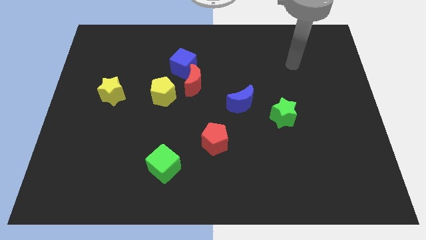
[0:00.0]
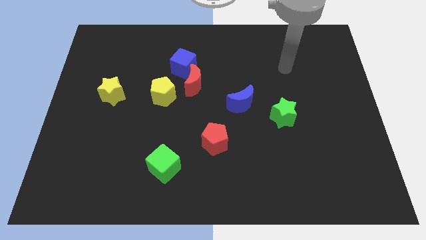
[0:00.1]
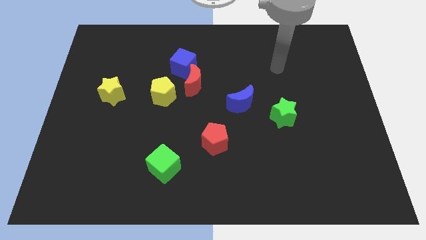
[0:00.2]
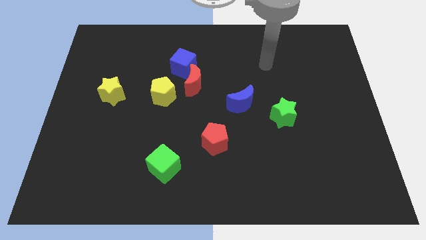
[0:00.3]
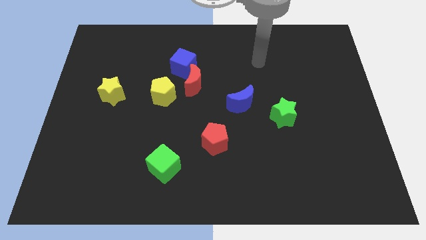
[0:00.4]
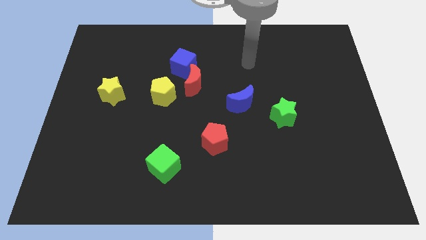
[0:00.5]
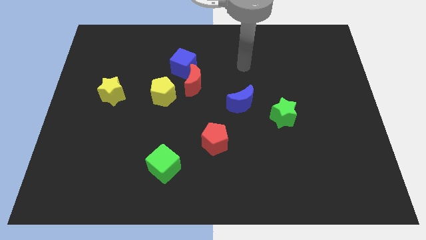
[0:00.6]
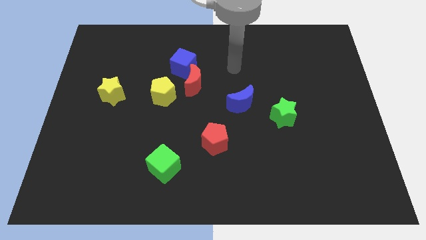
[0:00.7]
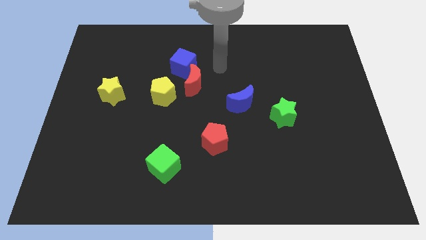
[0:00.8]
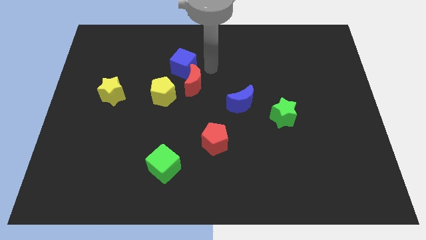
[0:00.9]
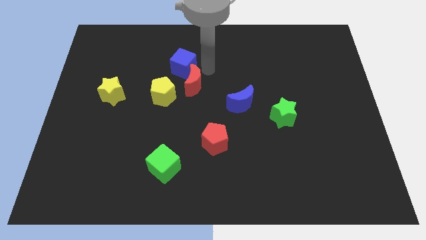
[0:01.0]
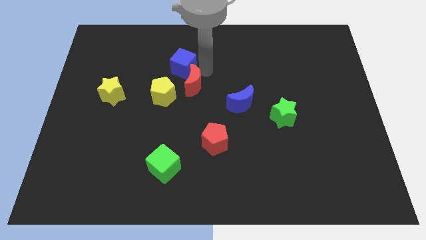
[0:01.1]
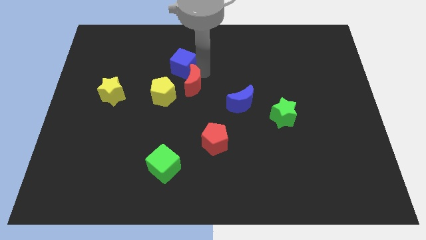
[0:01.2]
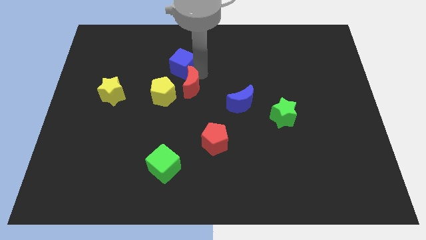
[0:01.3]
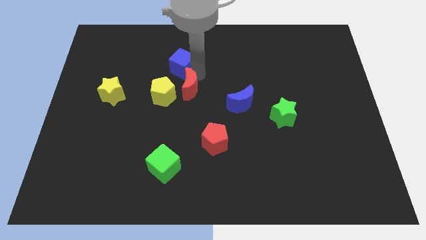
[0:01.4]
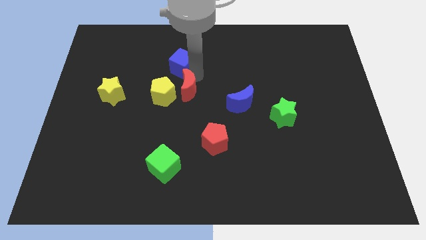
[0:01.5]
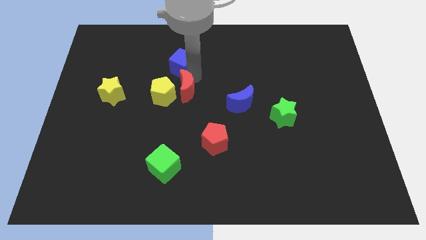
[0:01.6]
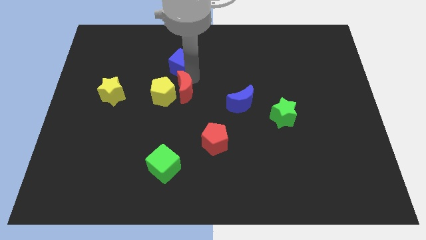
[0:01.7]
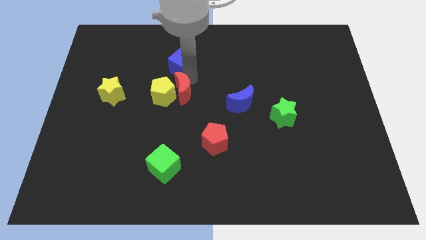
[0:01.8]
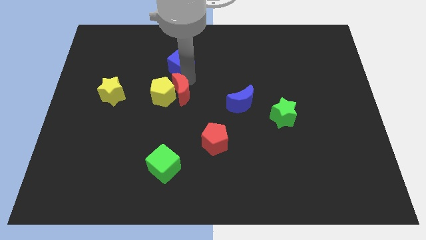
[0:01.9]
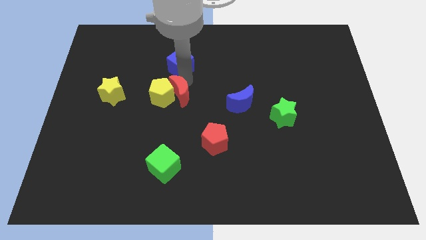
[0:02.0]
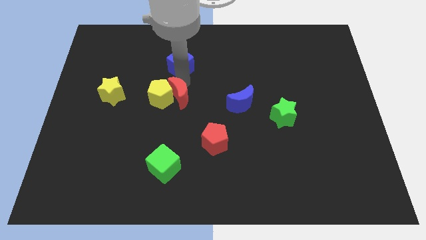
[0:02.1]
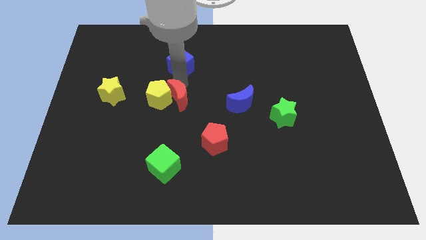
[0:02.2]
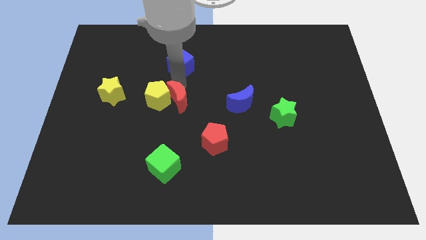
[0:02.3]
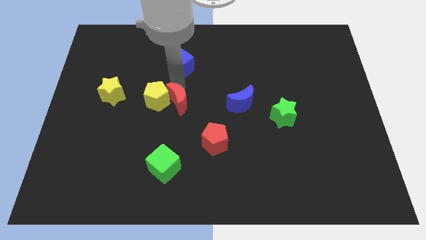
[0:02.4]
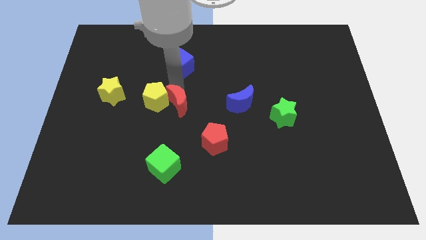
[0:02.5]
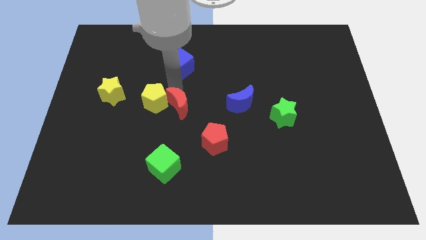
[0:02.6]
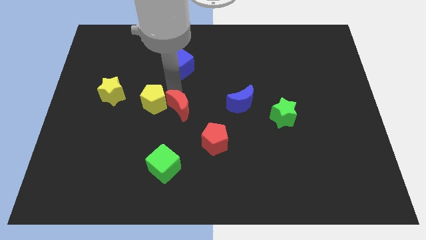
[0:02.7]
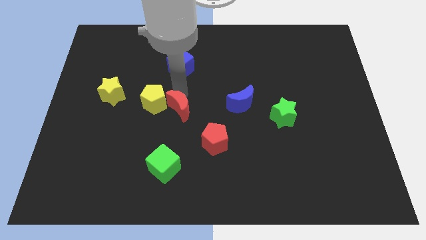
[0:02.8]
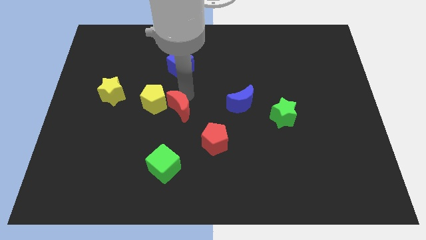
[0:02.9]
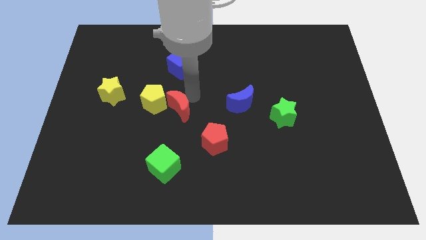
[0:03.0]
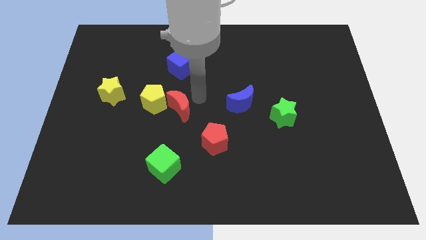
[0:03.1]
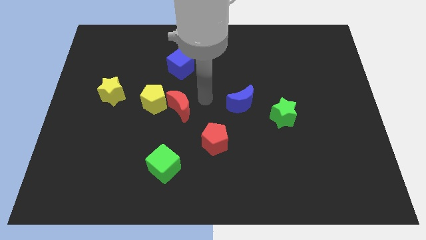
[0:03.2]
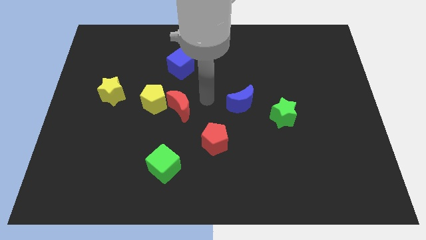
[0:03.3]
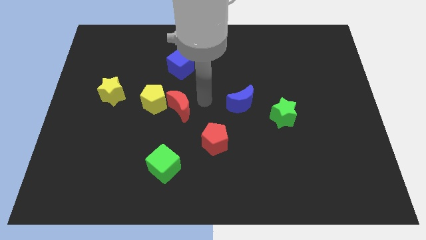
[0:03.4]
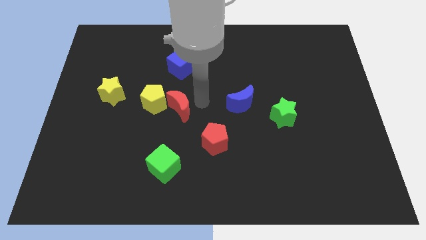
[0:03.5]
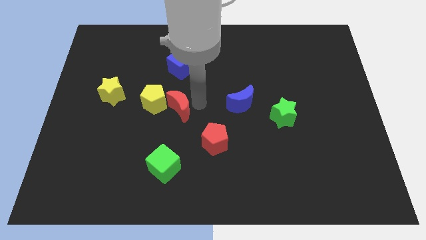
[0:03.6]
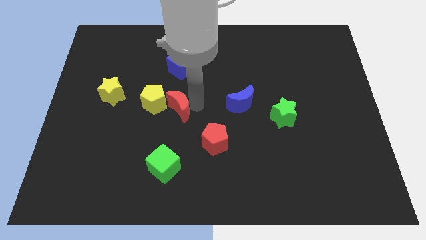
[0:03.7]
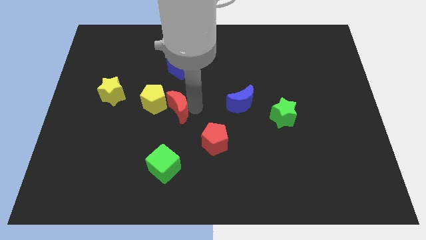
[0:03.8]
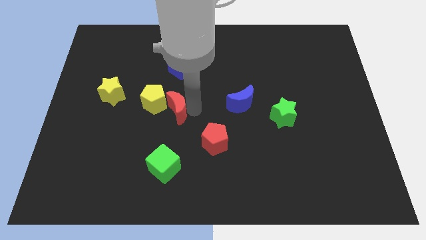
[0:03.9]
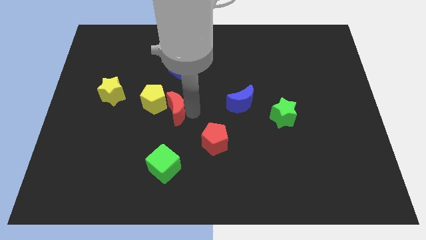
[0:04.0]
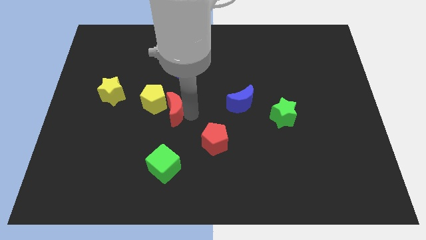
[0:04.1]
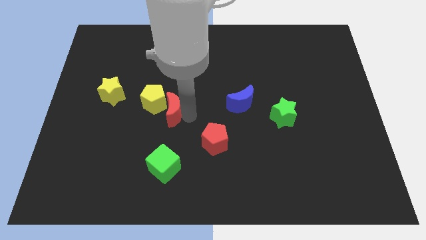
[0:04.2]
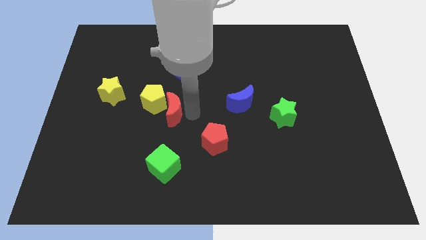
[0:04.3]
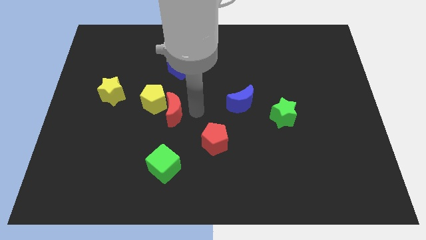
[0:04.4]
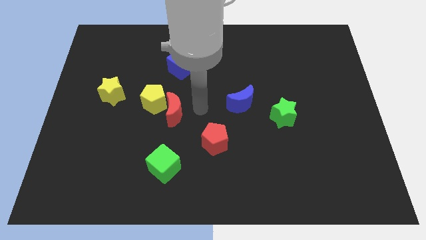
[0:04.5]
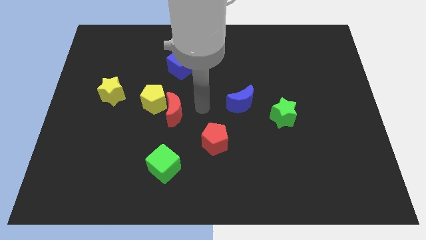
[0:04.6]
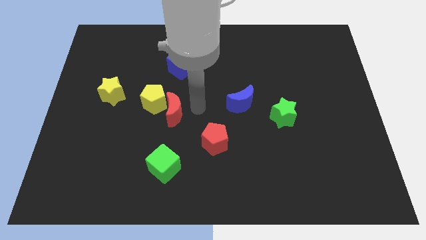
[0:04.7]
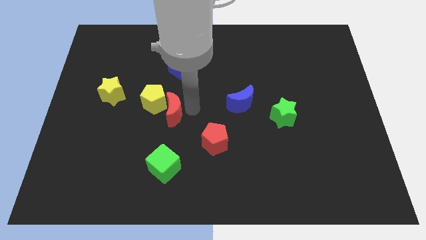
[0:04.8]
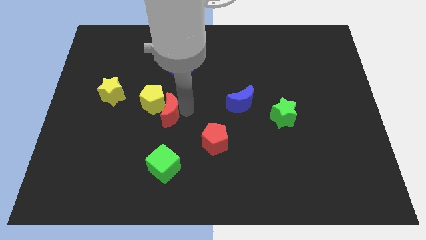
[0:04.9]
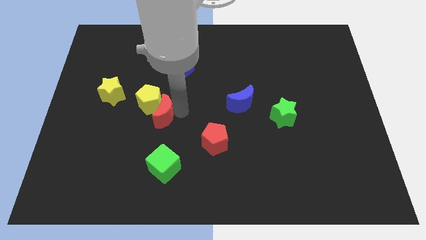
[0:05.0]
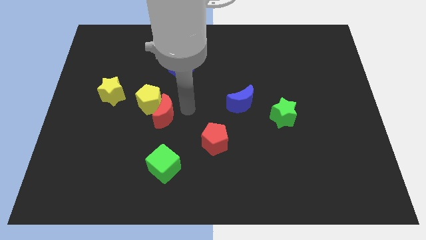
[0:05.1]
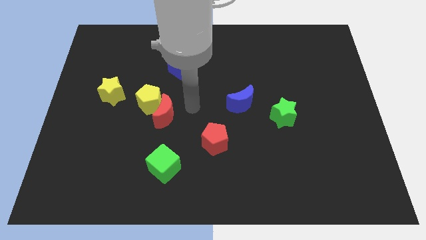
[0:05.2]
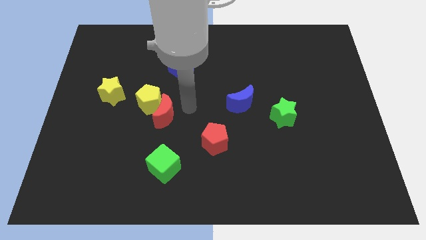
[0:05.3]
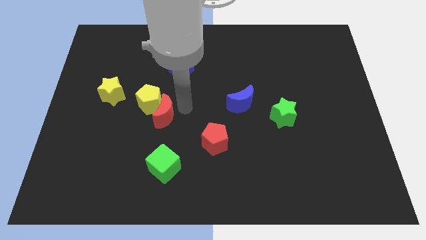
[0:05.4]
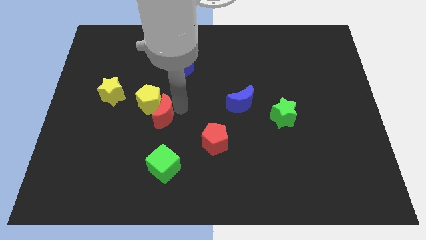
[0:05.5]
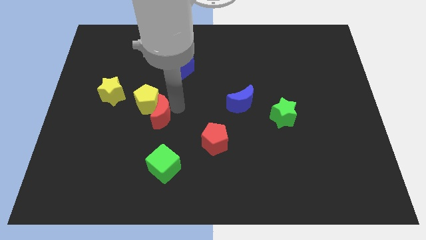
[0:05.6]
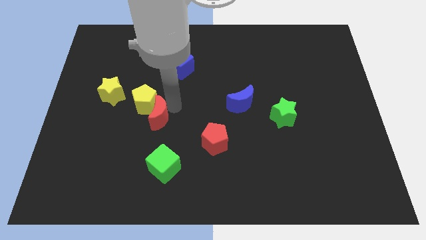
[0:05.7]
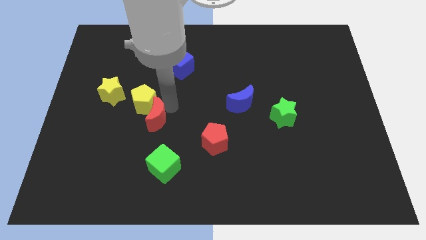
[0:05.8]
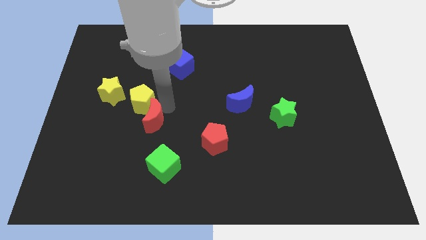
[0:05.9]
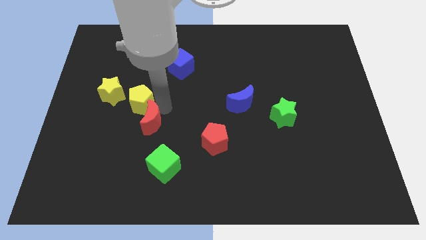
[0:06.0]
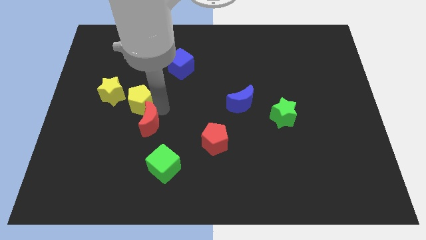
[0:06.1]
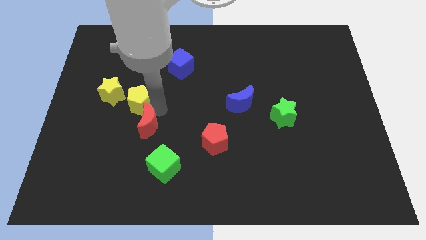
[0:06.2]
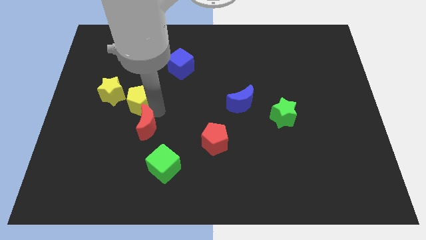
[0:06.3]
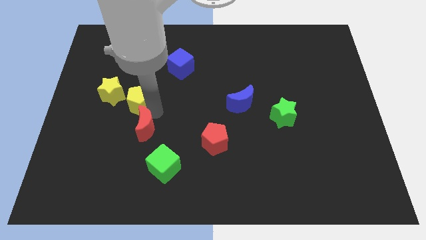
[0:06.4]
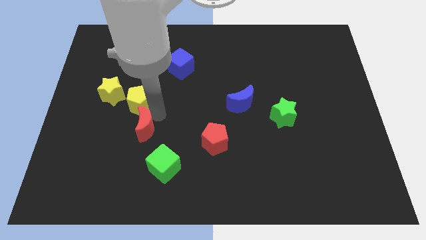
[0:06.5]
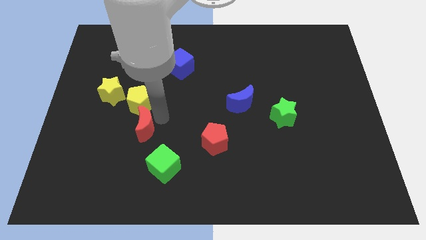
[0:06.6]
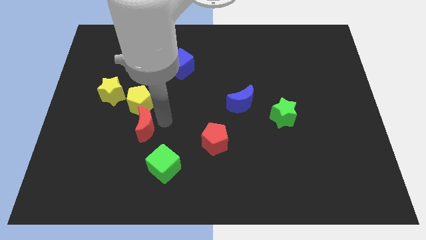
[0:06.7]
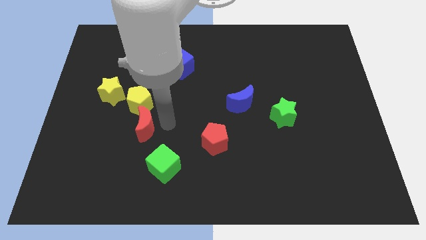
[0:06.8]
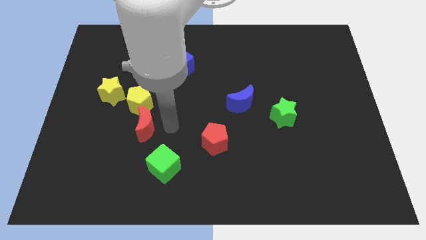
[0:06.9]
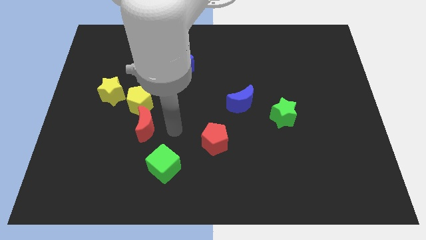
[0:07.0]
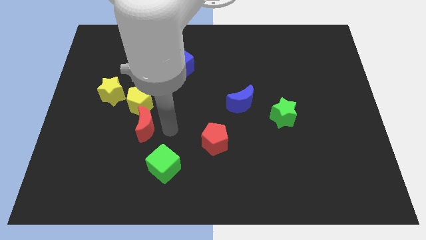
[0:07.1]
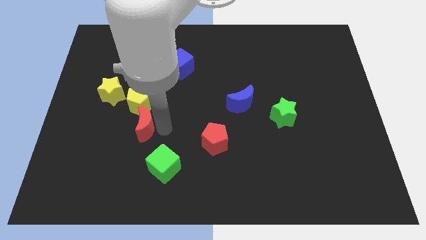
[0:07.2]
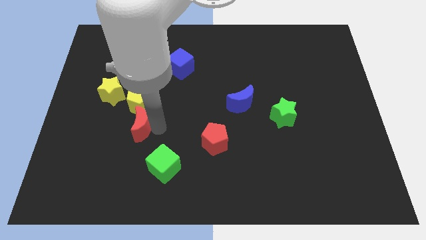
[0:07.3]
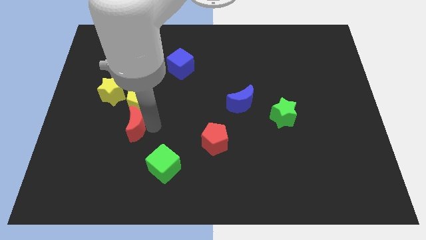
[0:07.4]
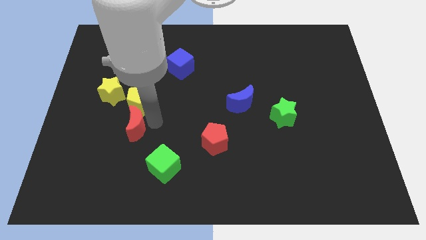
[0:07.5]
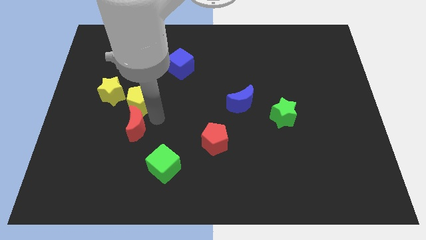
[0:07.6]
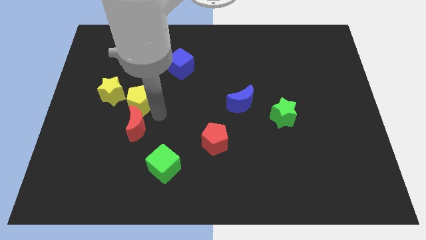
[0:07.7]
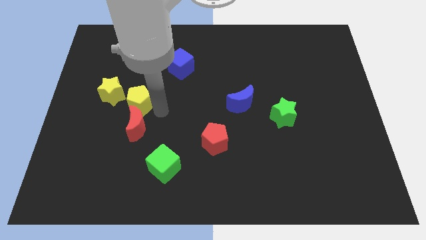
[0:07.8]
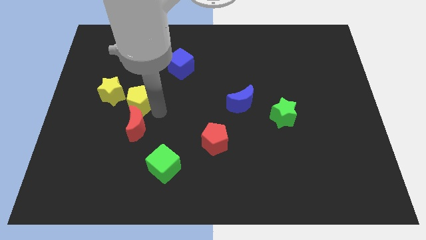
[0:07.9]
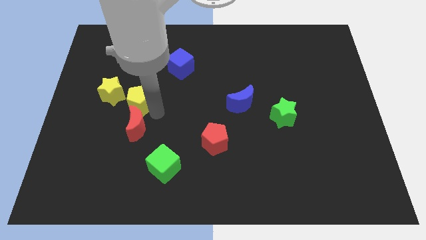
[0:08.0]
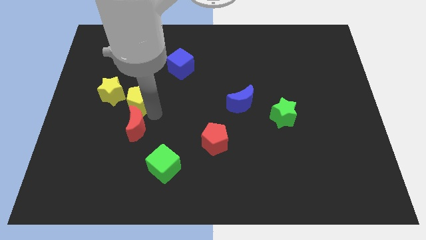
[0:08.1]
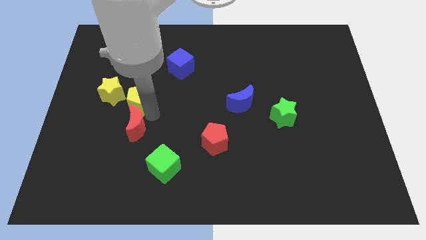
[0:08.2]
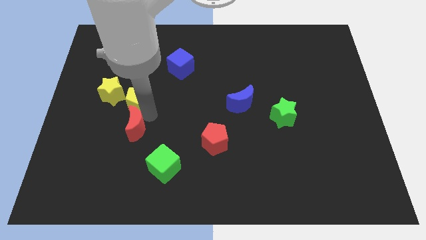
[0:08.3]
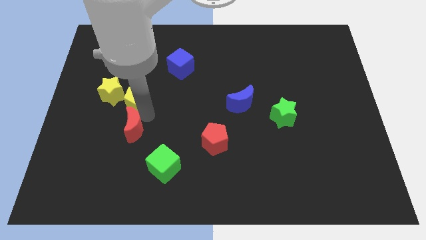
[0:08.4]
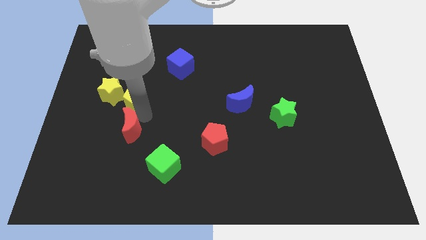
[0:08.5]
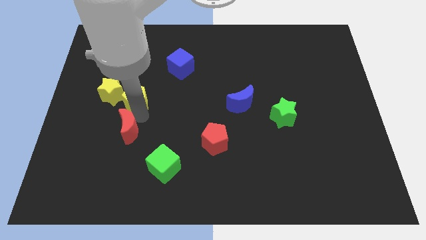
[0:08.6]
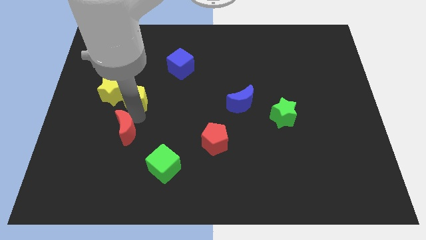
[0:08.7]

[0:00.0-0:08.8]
slide the red moon downwards and then left
